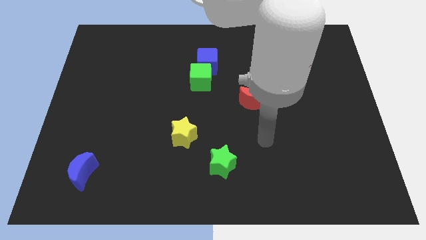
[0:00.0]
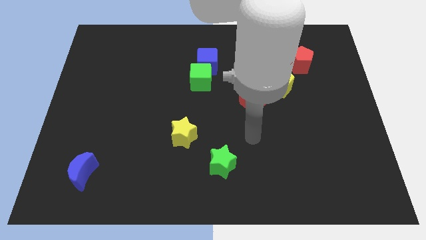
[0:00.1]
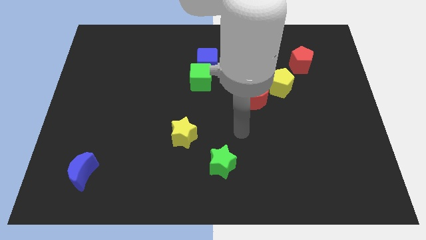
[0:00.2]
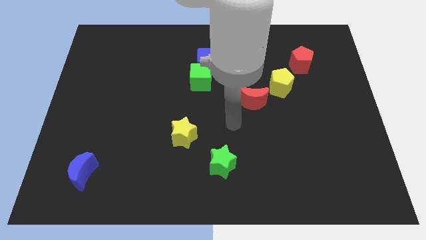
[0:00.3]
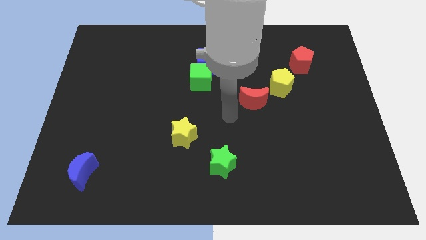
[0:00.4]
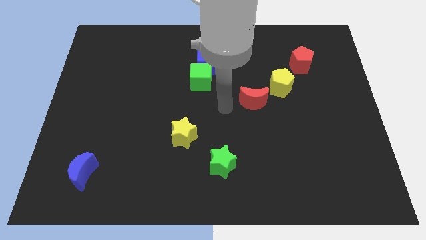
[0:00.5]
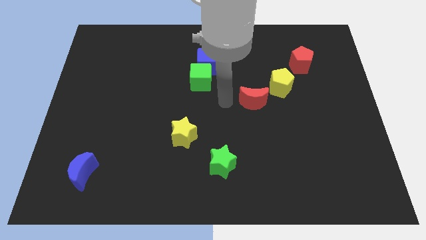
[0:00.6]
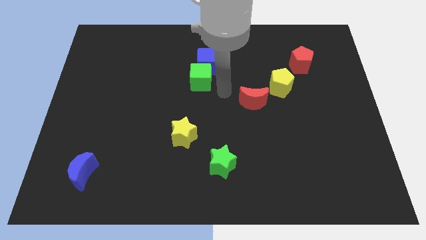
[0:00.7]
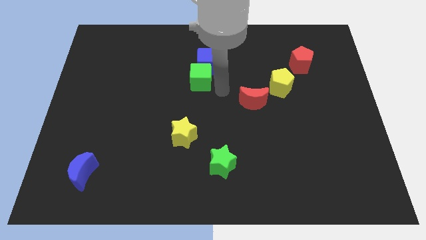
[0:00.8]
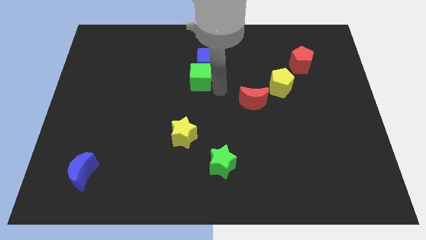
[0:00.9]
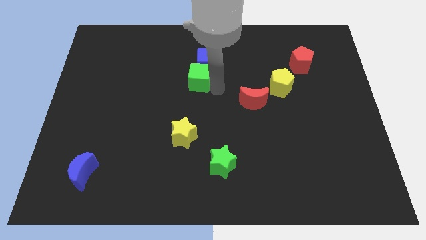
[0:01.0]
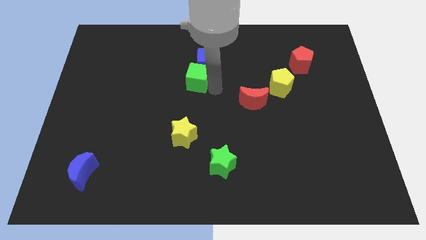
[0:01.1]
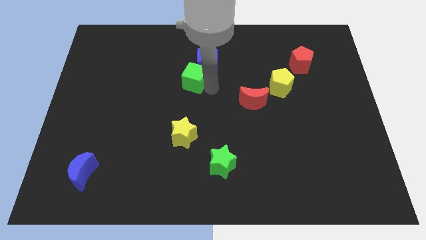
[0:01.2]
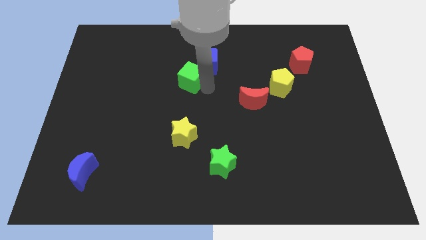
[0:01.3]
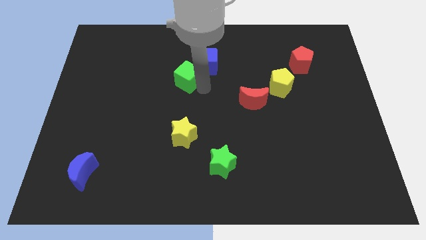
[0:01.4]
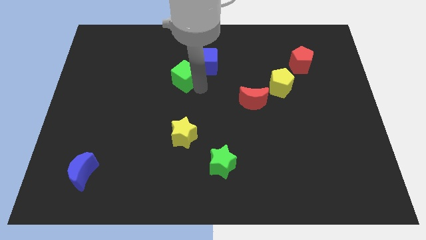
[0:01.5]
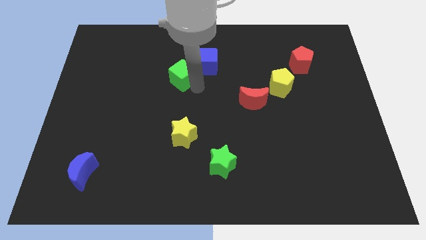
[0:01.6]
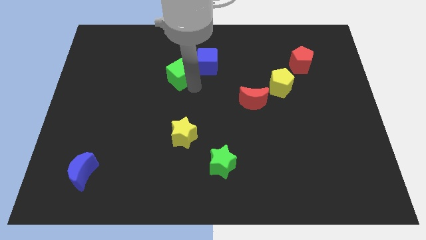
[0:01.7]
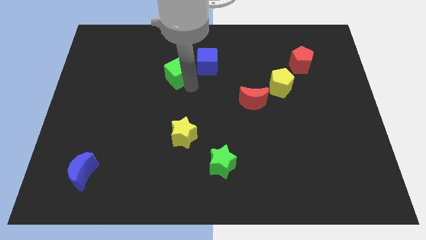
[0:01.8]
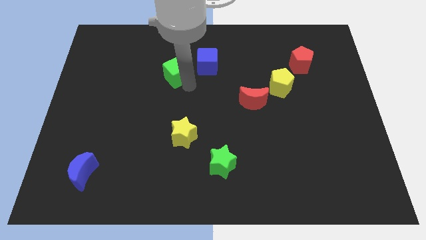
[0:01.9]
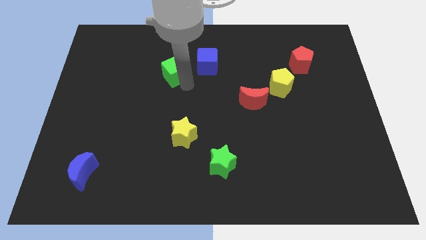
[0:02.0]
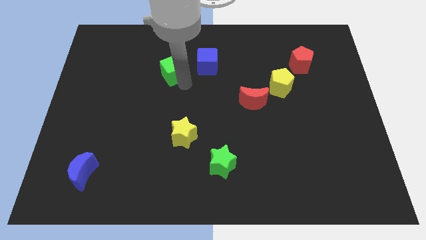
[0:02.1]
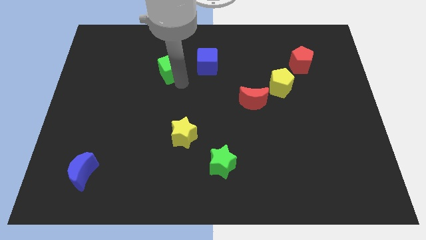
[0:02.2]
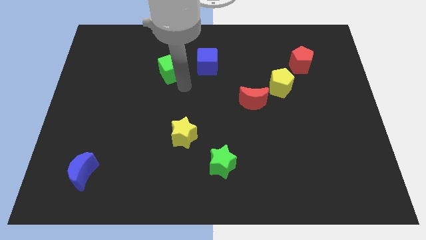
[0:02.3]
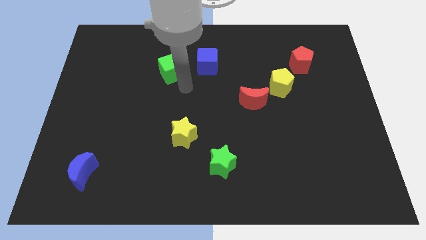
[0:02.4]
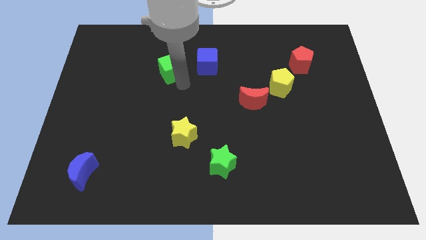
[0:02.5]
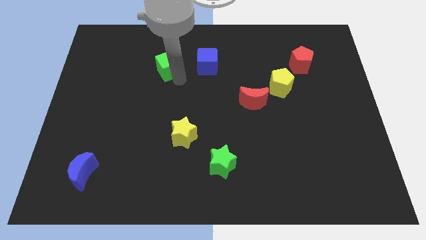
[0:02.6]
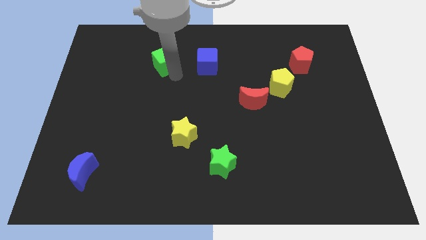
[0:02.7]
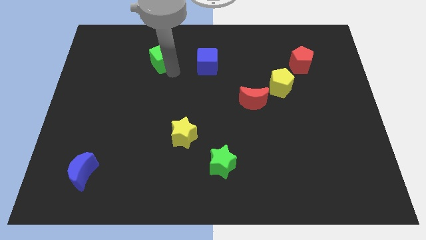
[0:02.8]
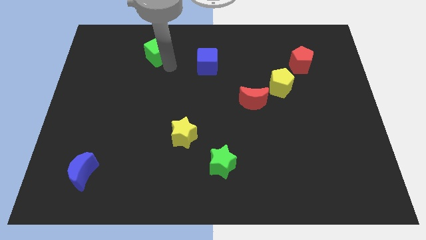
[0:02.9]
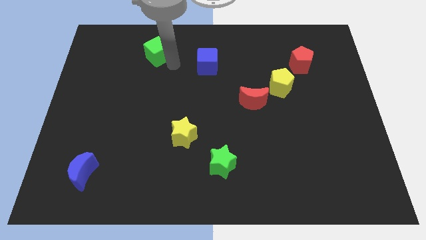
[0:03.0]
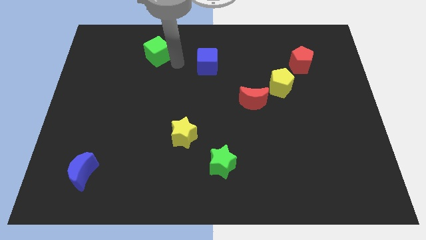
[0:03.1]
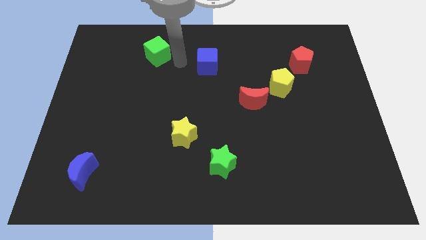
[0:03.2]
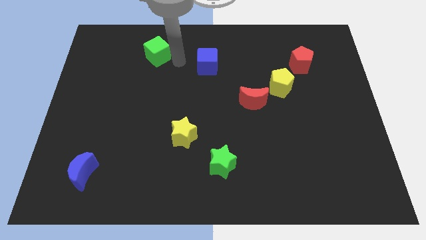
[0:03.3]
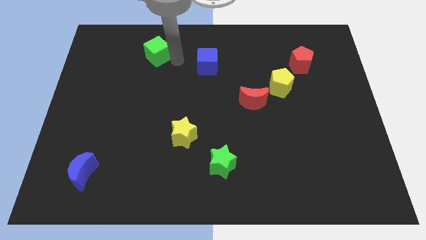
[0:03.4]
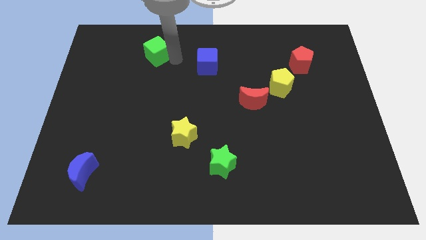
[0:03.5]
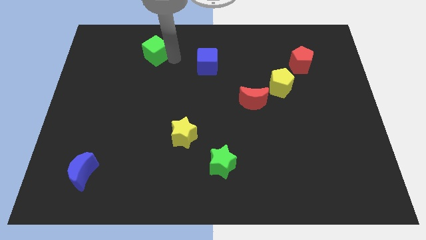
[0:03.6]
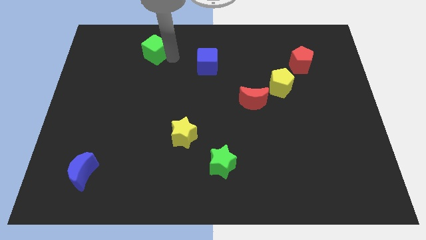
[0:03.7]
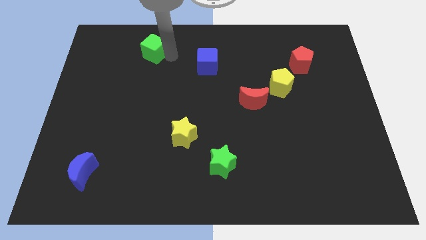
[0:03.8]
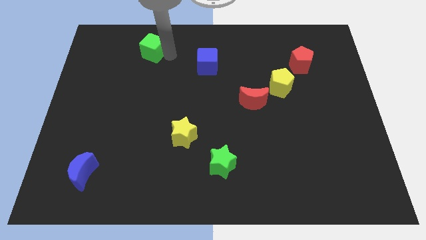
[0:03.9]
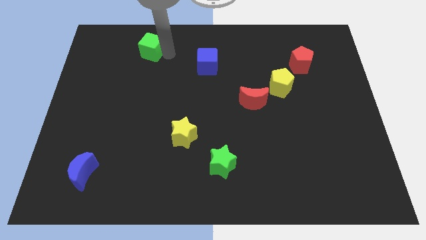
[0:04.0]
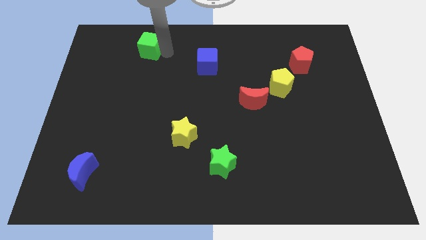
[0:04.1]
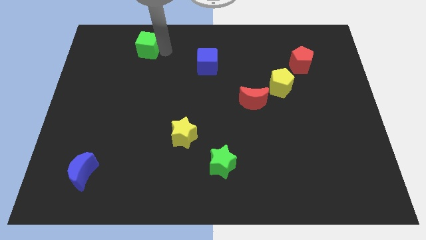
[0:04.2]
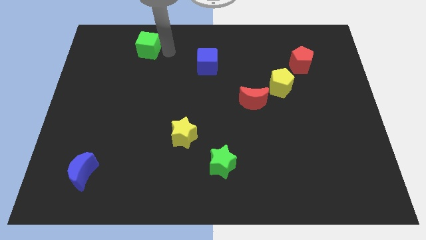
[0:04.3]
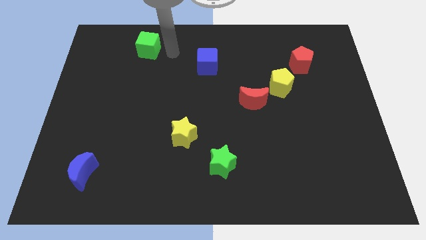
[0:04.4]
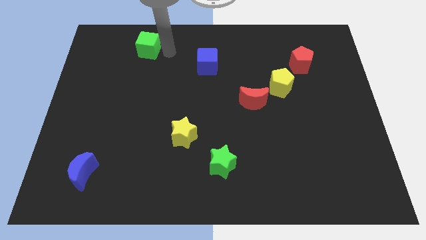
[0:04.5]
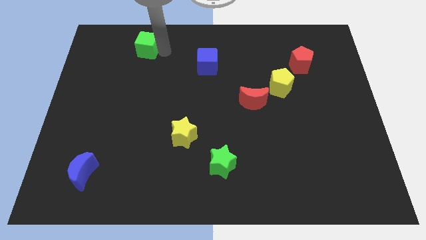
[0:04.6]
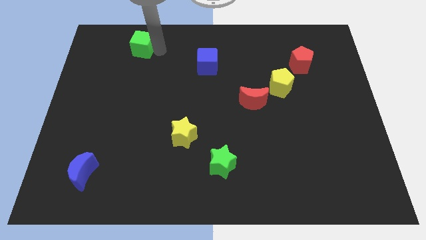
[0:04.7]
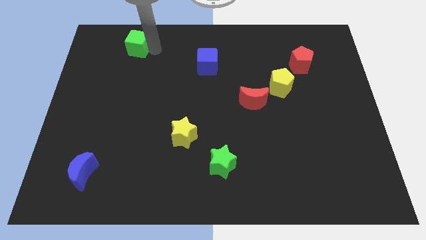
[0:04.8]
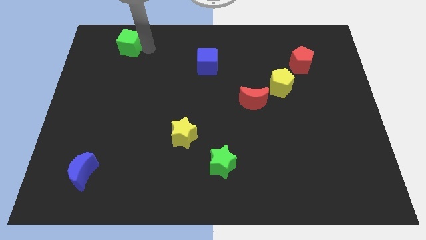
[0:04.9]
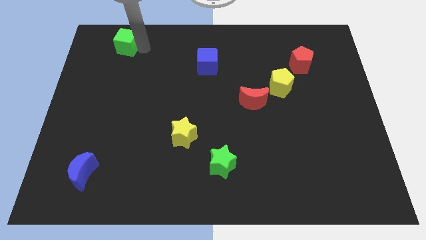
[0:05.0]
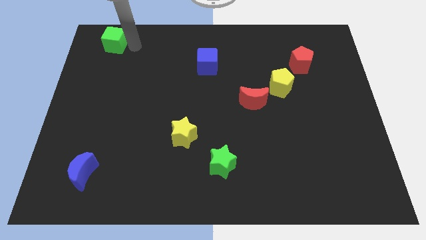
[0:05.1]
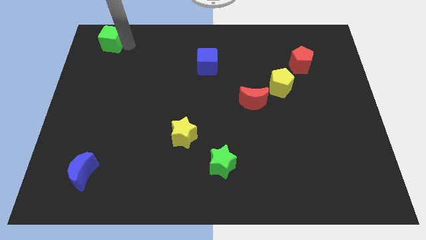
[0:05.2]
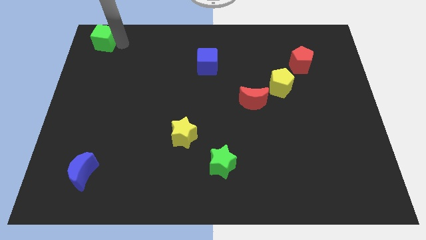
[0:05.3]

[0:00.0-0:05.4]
push the green cube to the upper left corner

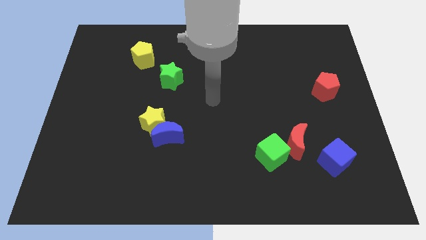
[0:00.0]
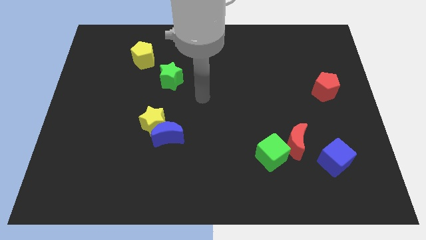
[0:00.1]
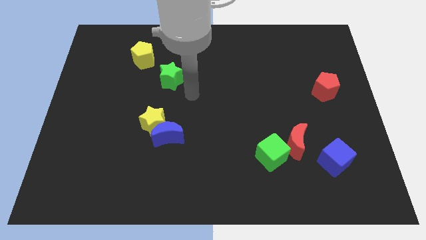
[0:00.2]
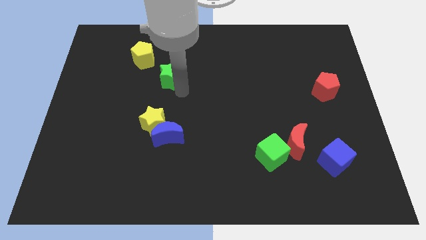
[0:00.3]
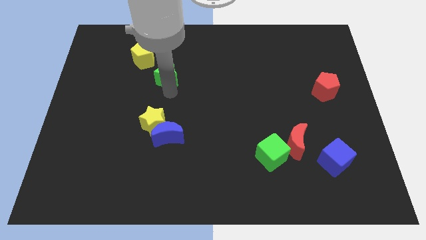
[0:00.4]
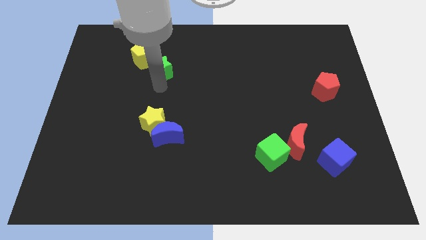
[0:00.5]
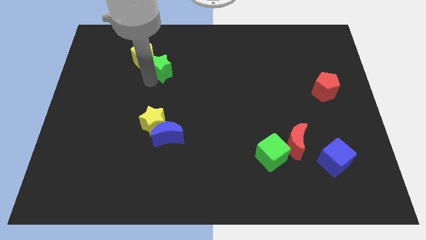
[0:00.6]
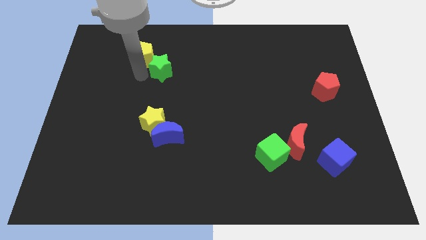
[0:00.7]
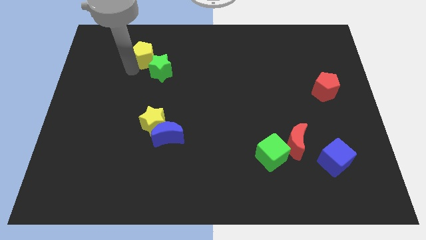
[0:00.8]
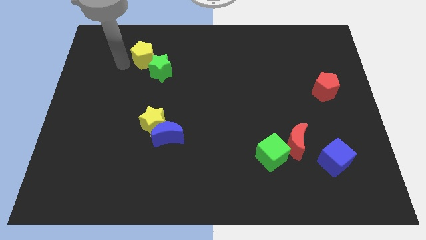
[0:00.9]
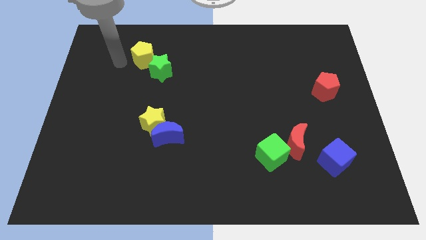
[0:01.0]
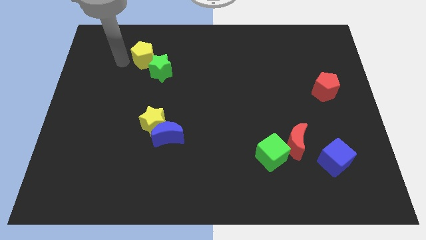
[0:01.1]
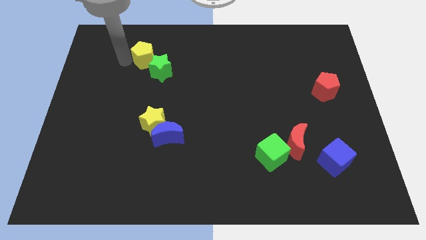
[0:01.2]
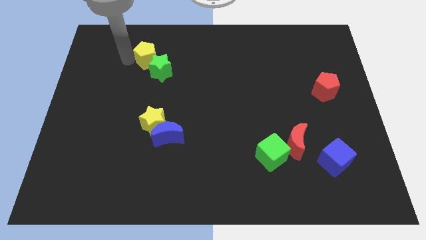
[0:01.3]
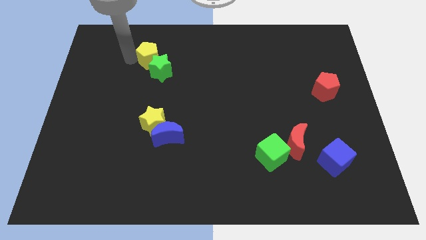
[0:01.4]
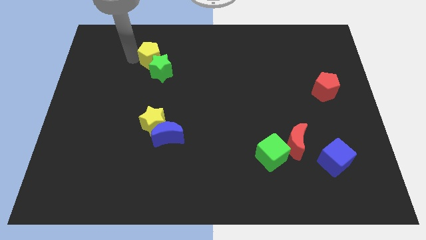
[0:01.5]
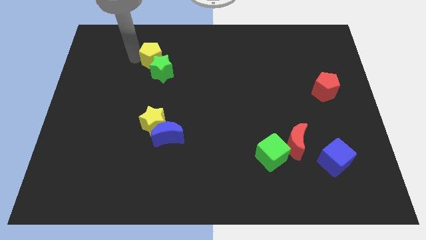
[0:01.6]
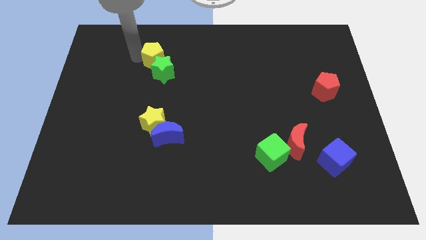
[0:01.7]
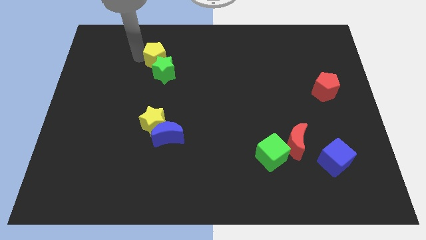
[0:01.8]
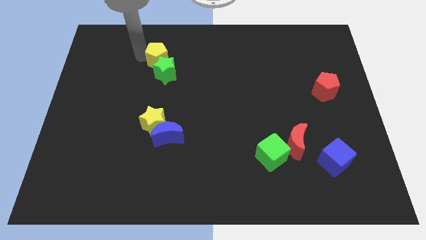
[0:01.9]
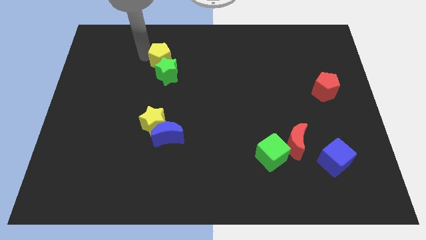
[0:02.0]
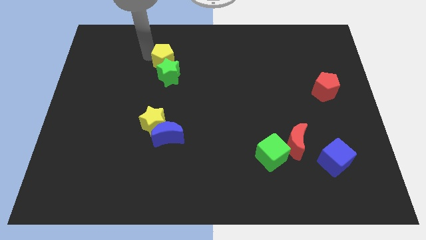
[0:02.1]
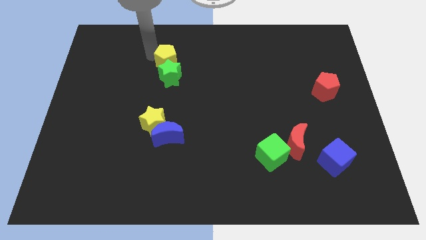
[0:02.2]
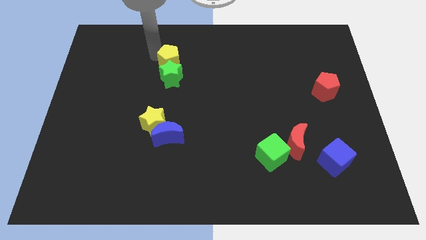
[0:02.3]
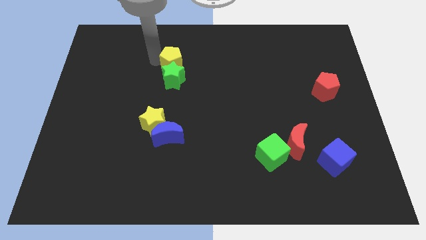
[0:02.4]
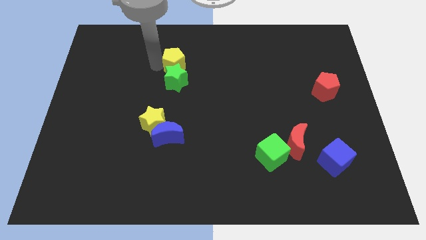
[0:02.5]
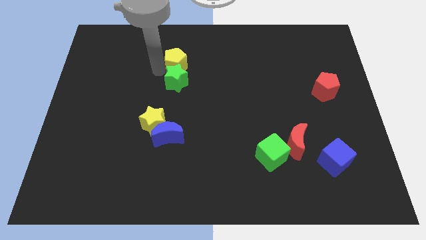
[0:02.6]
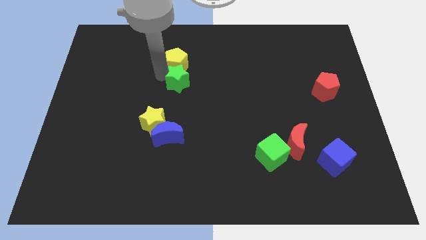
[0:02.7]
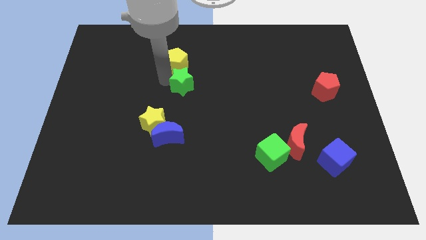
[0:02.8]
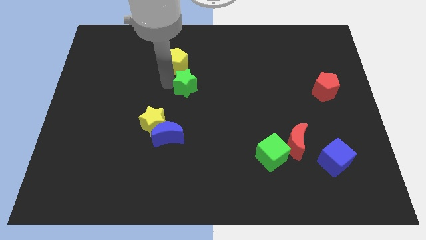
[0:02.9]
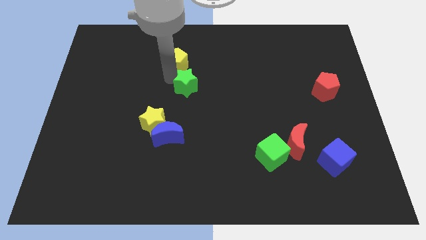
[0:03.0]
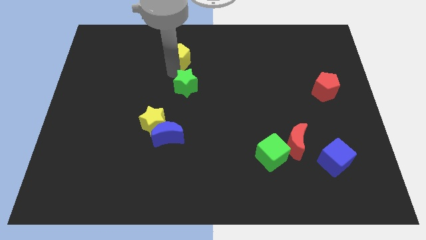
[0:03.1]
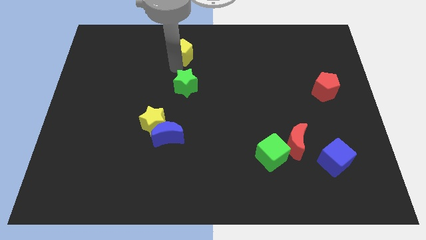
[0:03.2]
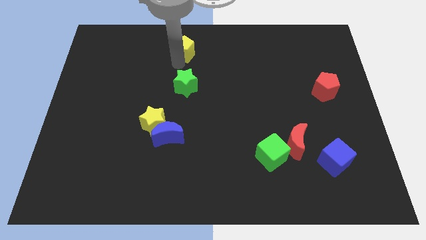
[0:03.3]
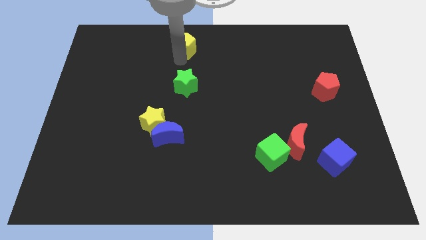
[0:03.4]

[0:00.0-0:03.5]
slide the yellow pentagon to the top
